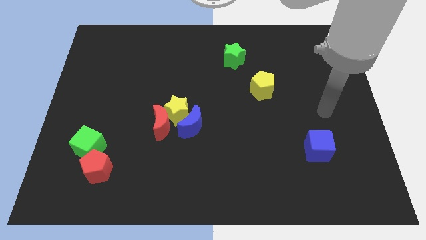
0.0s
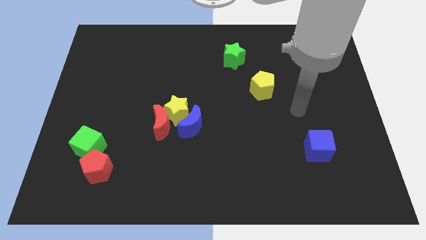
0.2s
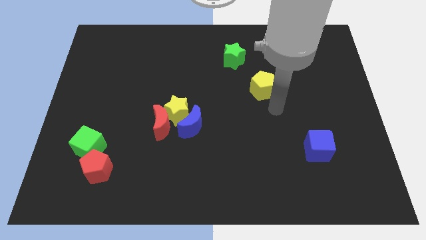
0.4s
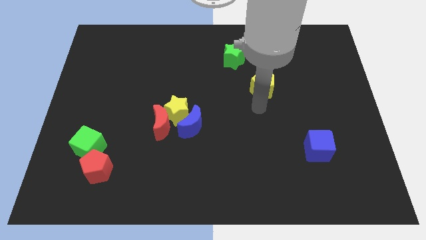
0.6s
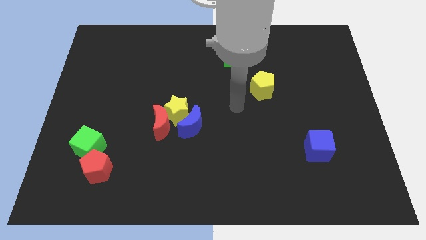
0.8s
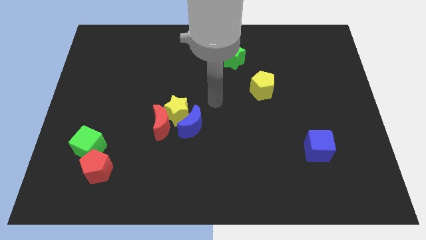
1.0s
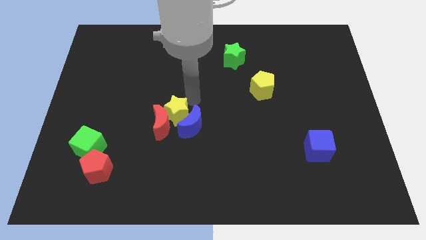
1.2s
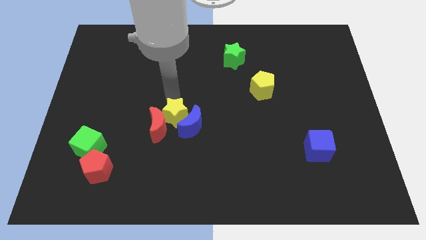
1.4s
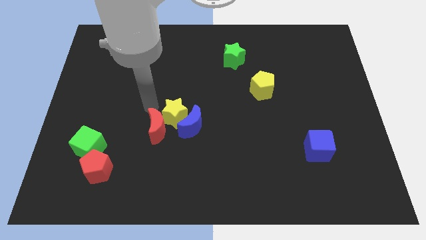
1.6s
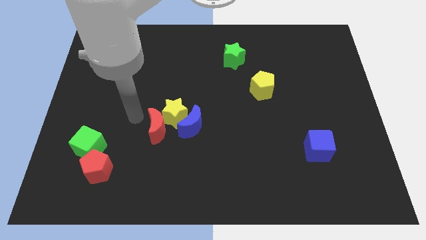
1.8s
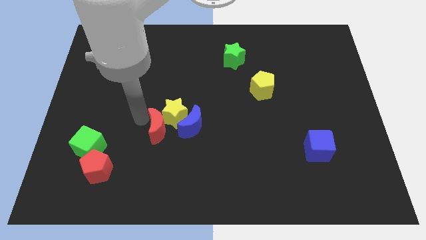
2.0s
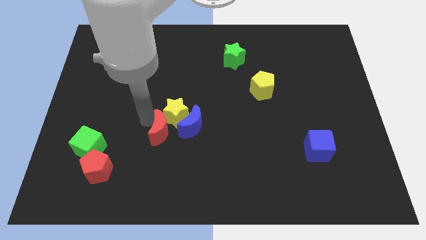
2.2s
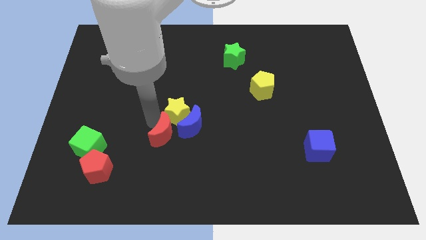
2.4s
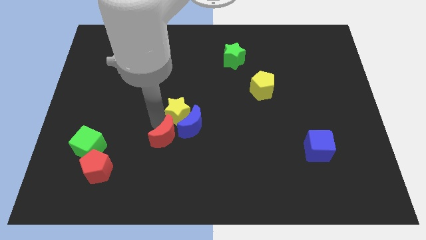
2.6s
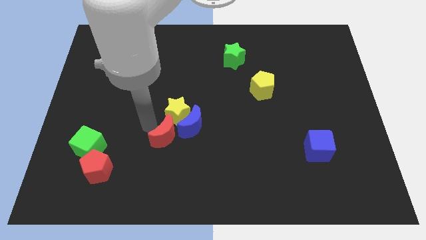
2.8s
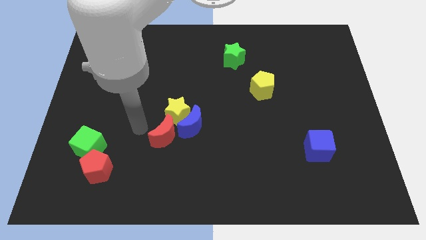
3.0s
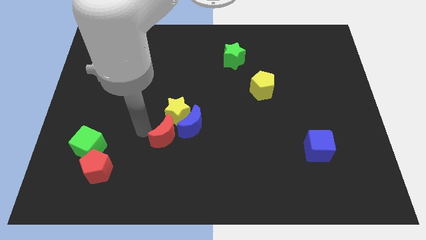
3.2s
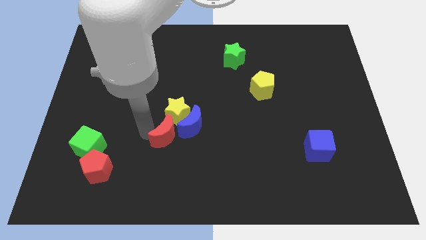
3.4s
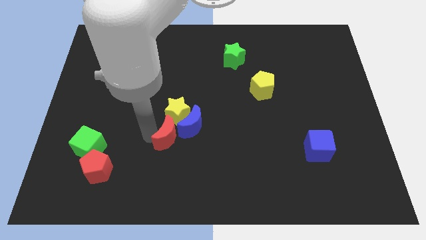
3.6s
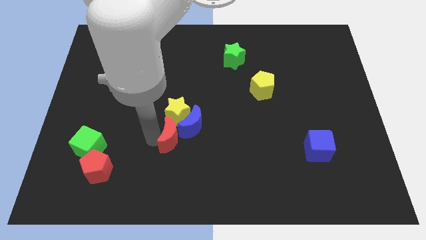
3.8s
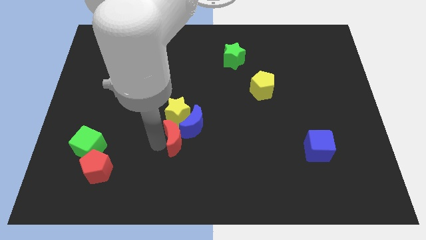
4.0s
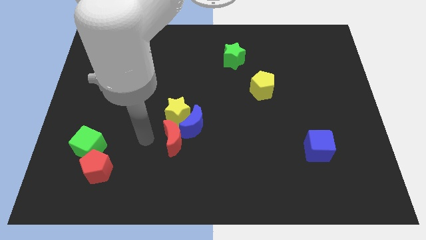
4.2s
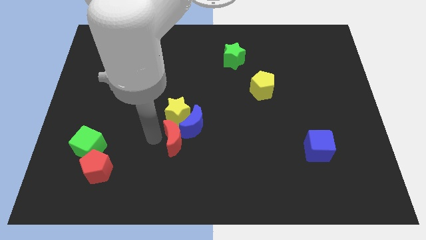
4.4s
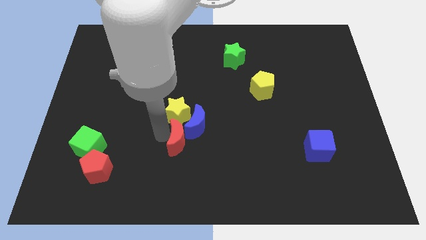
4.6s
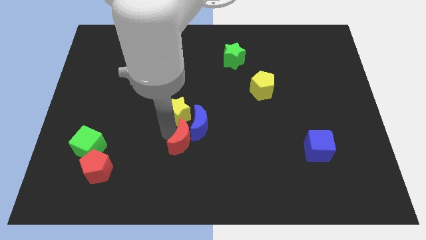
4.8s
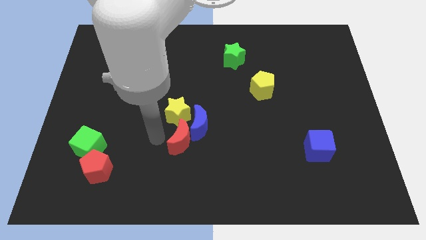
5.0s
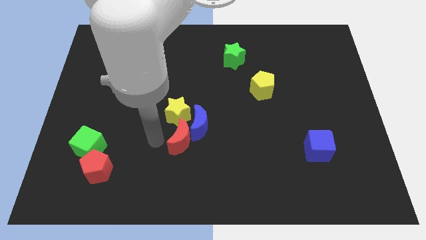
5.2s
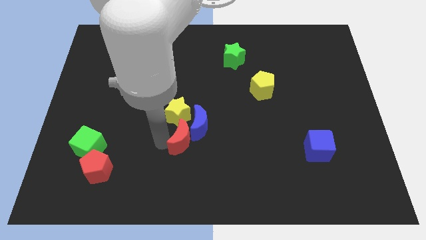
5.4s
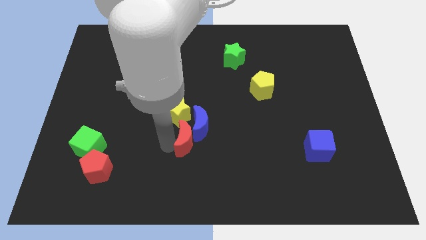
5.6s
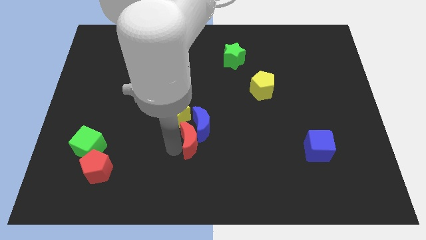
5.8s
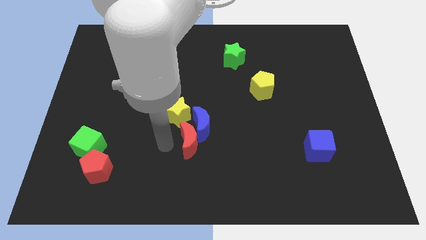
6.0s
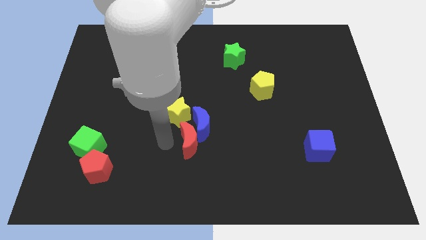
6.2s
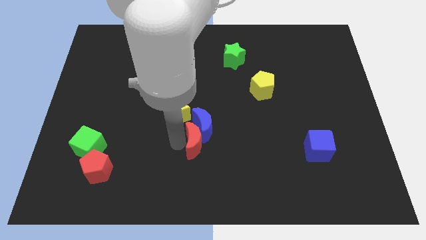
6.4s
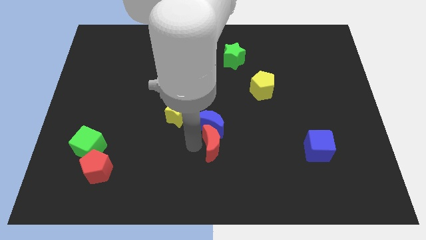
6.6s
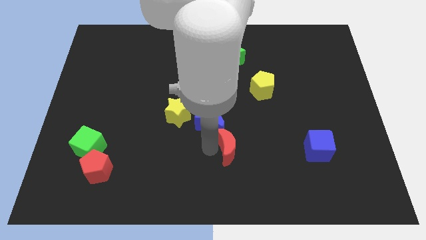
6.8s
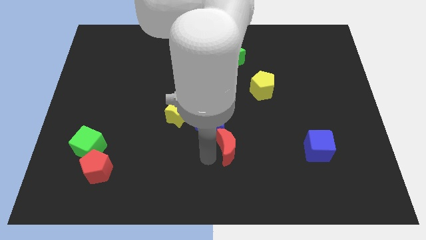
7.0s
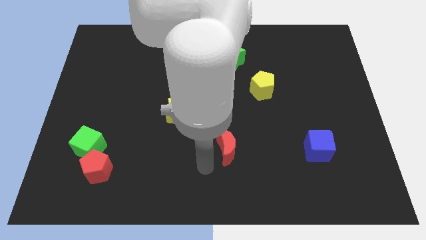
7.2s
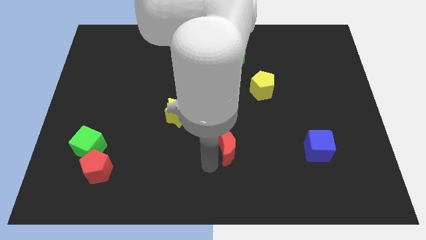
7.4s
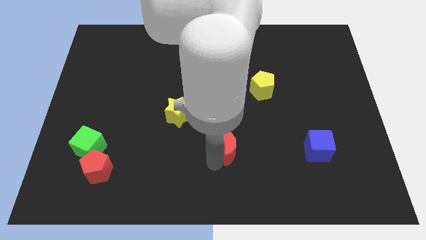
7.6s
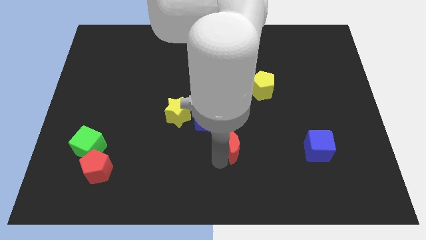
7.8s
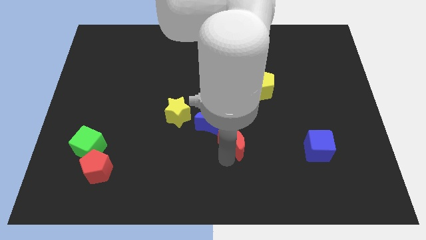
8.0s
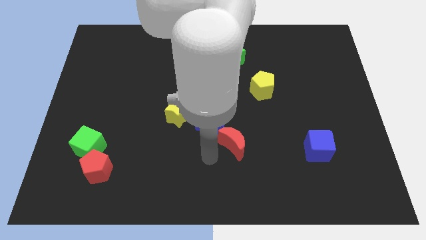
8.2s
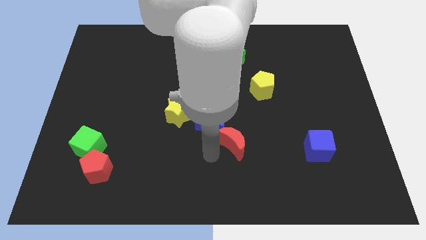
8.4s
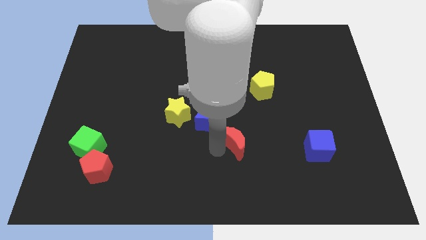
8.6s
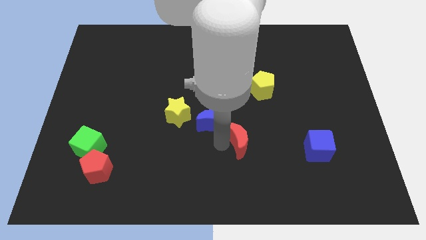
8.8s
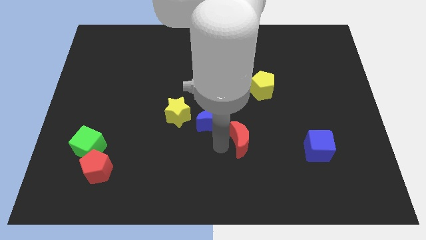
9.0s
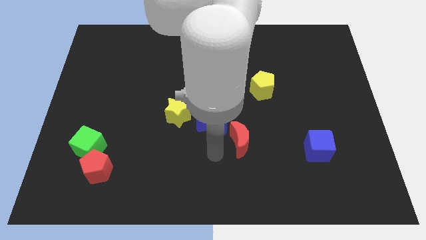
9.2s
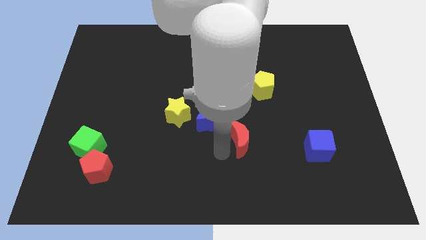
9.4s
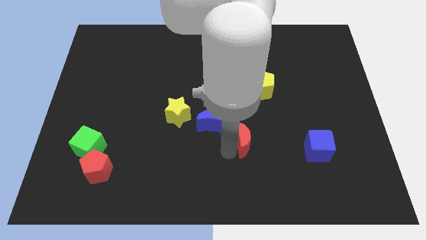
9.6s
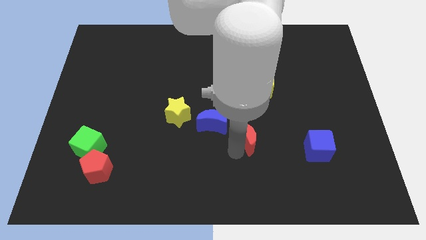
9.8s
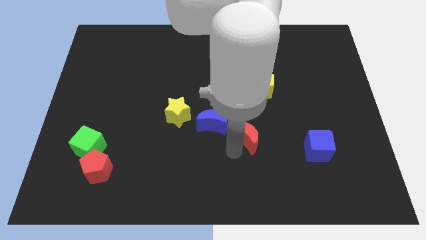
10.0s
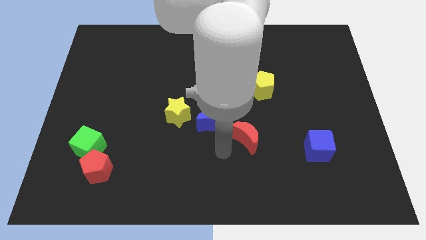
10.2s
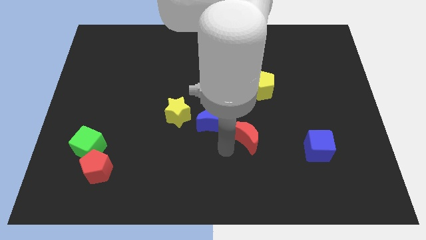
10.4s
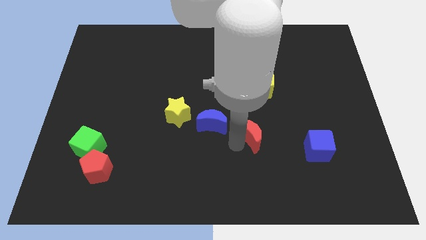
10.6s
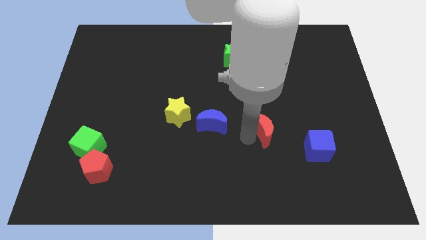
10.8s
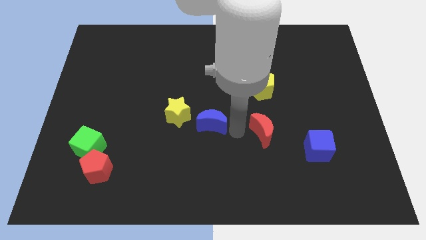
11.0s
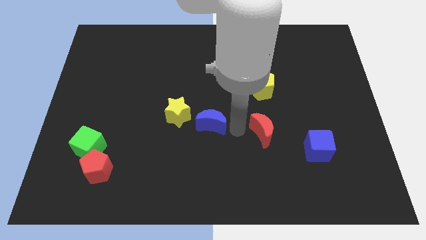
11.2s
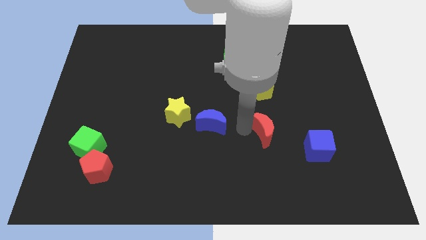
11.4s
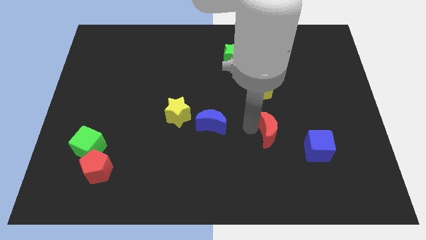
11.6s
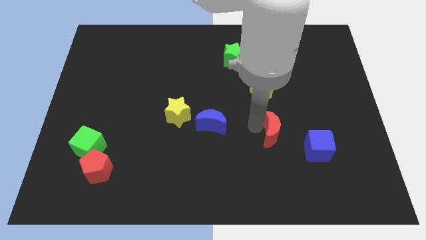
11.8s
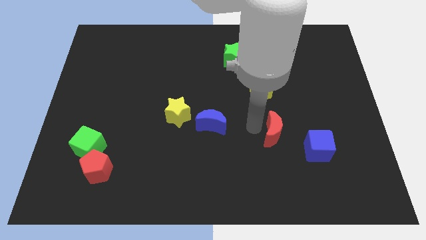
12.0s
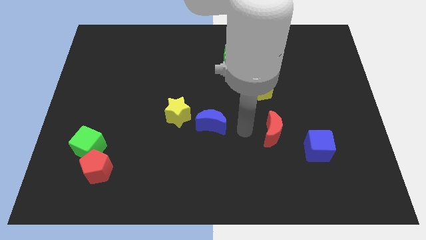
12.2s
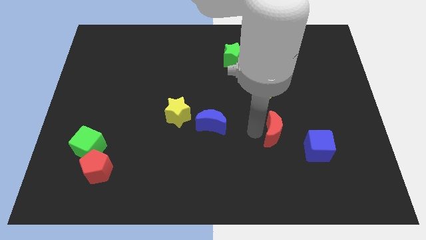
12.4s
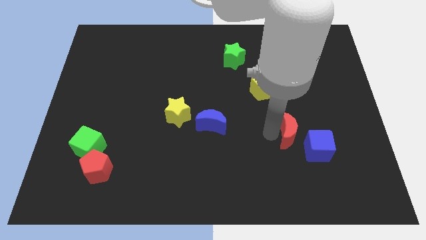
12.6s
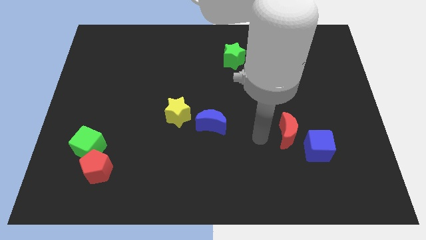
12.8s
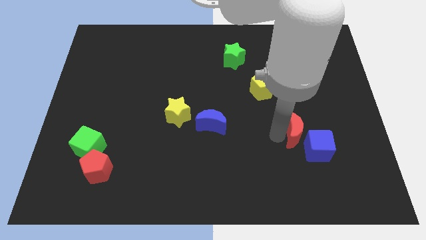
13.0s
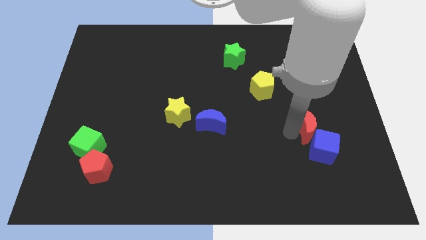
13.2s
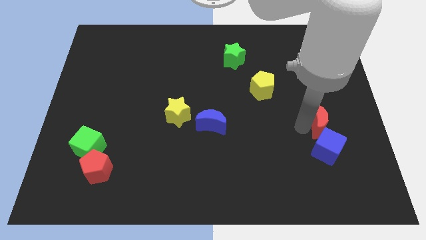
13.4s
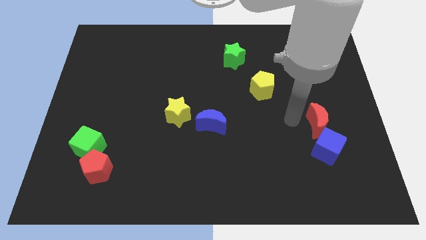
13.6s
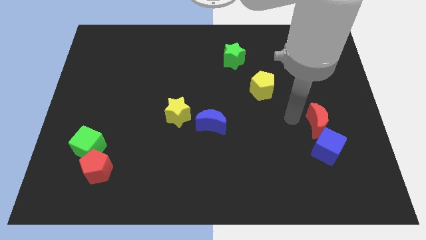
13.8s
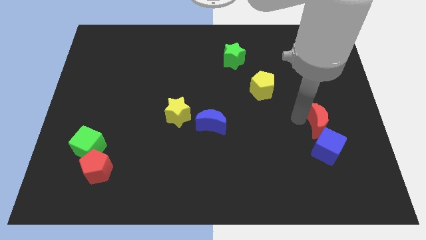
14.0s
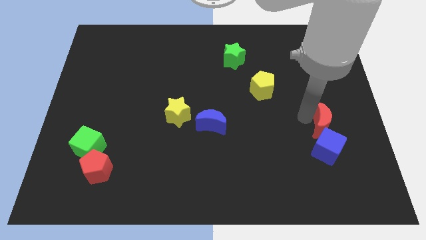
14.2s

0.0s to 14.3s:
move the red moon diagonally up and to the right of the blue cube

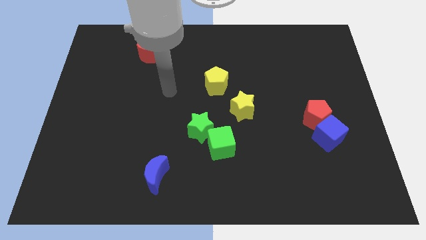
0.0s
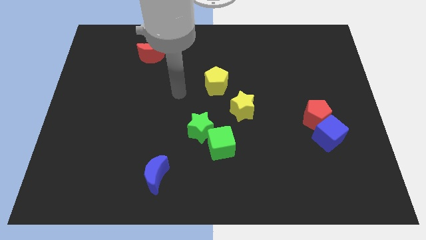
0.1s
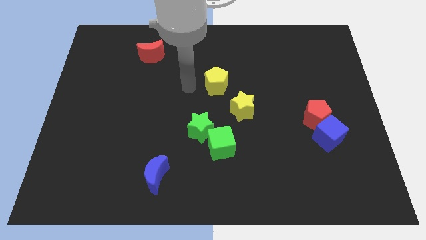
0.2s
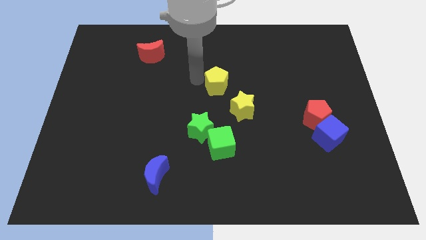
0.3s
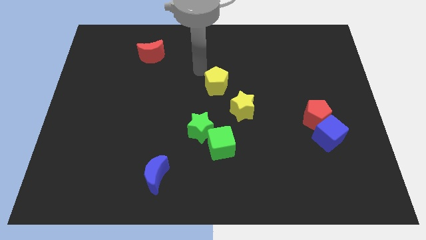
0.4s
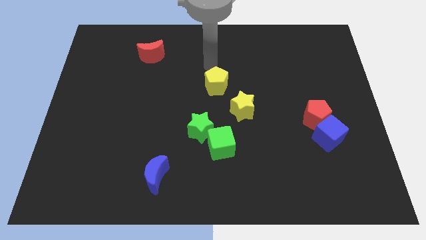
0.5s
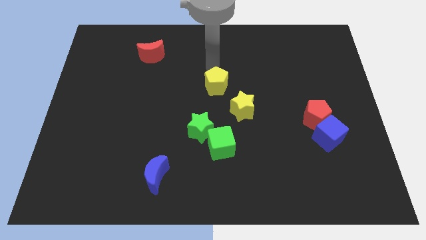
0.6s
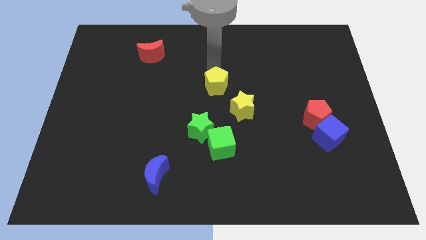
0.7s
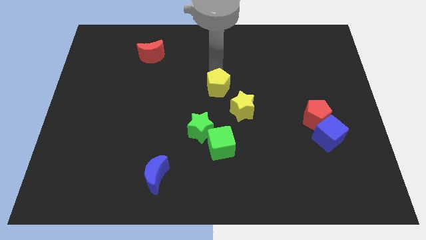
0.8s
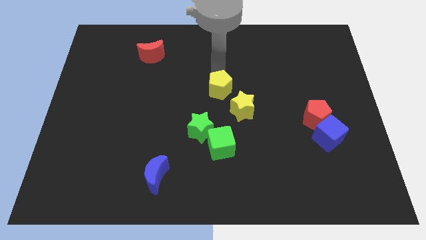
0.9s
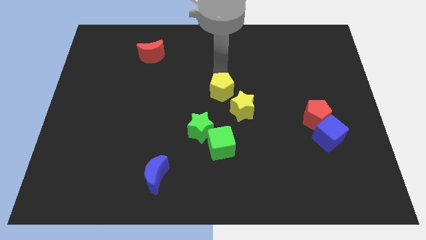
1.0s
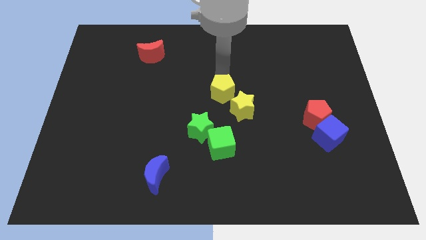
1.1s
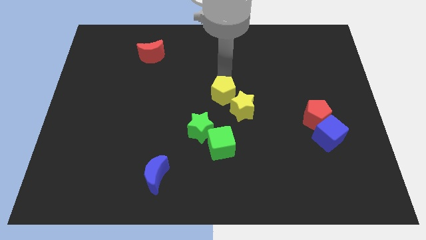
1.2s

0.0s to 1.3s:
move the yellow pentagon diagonally up and to the right of the green star
